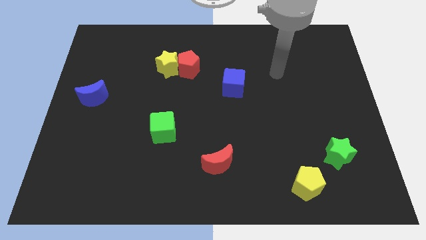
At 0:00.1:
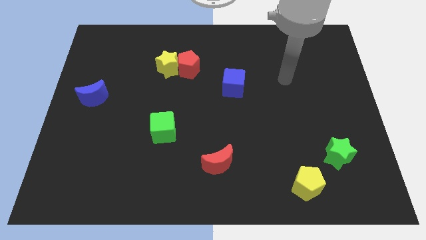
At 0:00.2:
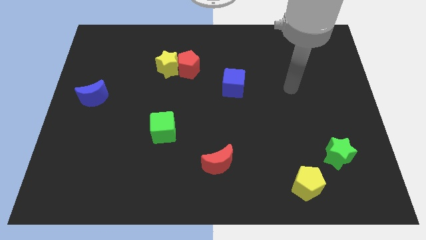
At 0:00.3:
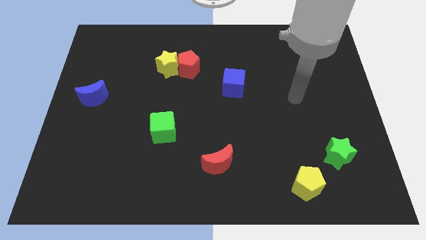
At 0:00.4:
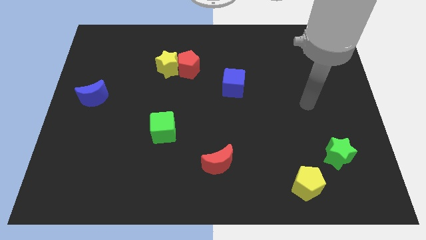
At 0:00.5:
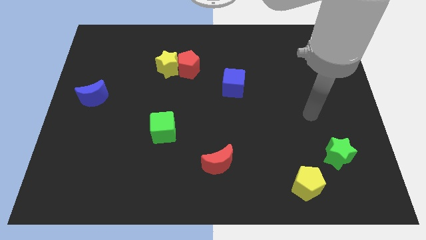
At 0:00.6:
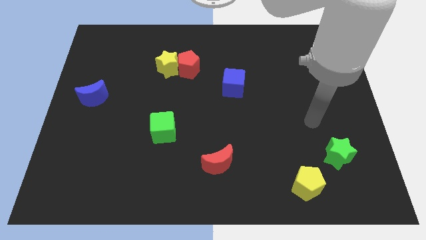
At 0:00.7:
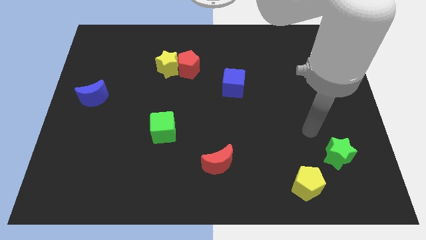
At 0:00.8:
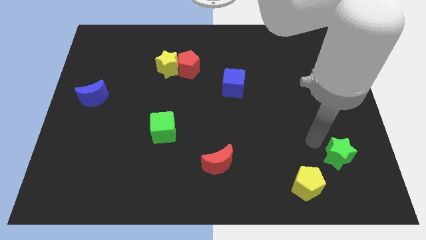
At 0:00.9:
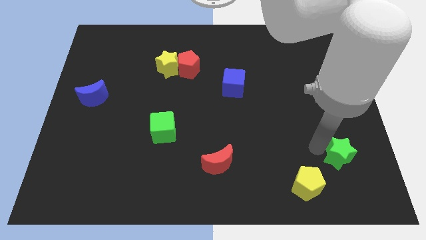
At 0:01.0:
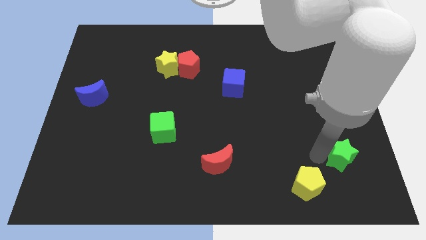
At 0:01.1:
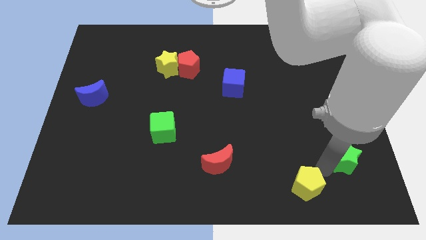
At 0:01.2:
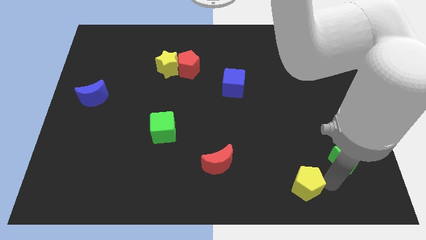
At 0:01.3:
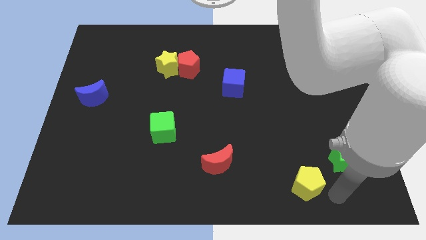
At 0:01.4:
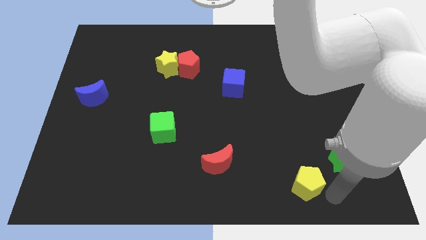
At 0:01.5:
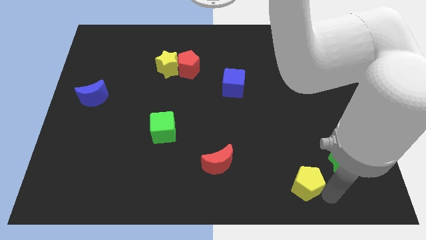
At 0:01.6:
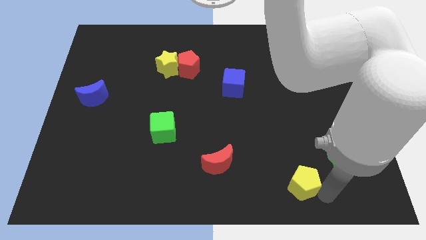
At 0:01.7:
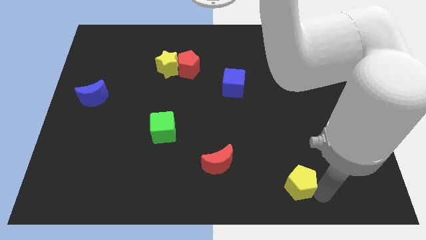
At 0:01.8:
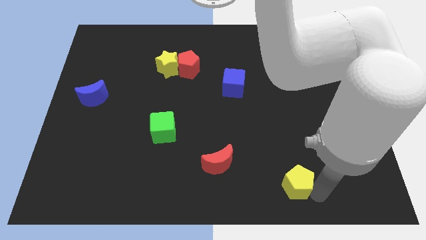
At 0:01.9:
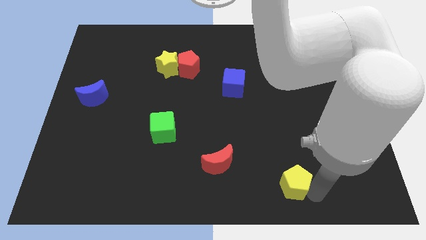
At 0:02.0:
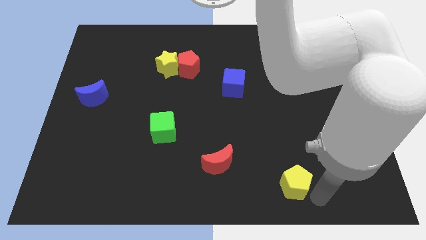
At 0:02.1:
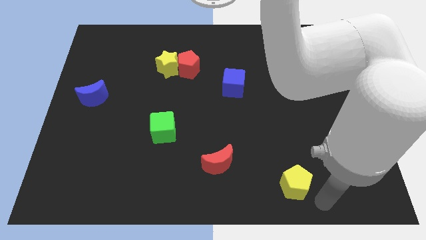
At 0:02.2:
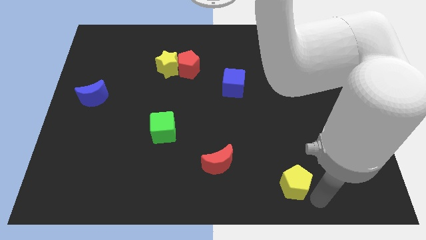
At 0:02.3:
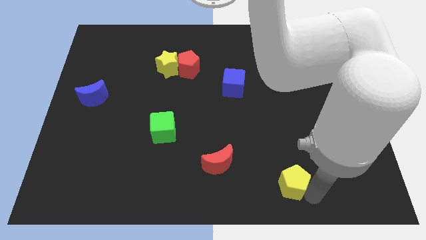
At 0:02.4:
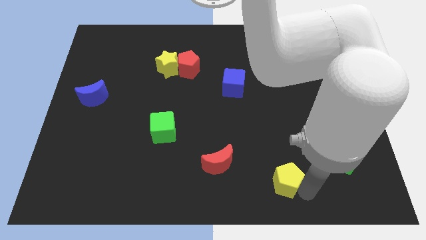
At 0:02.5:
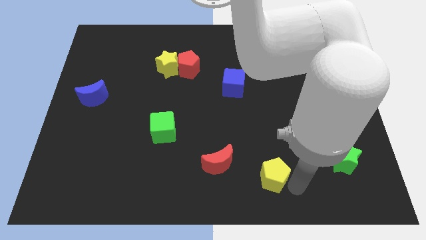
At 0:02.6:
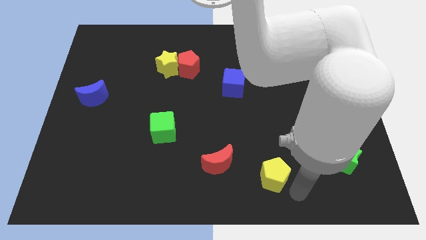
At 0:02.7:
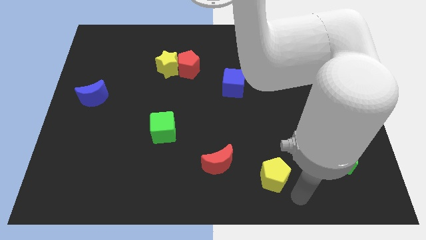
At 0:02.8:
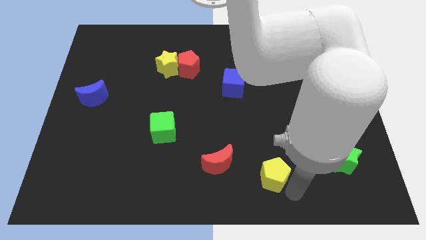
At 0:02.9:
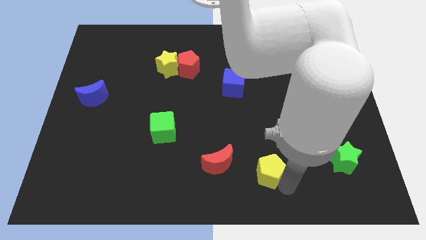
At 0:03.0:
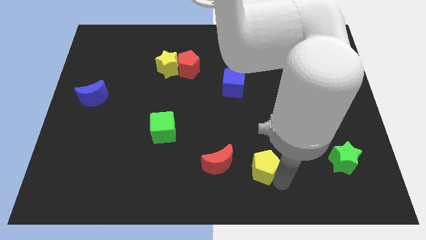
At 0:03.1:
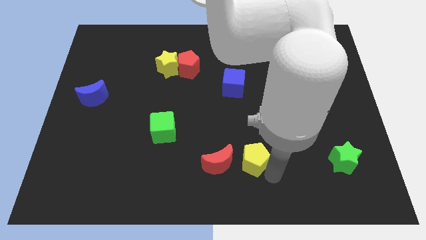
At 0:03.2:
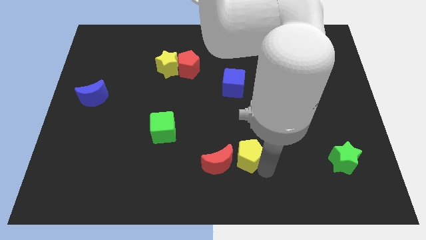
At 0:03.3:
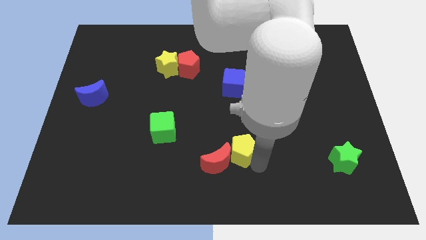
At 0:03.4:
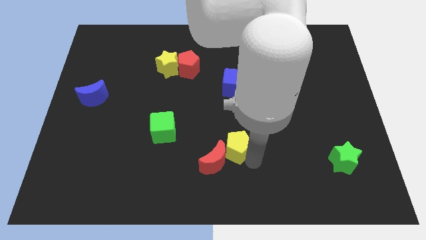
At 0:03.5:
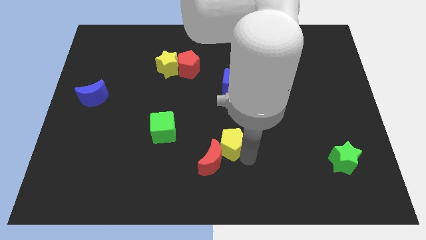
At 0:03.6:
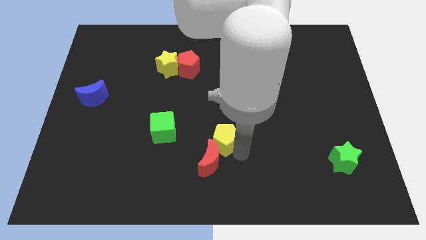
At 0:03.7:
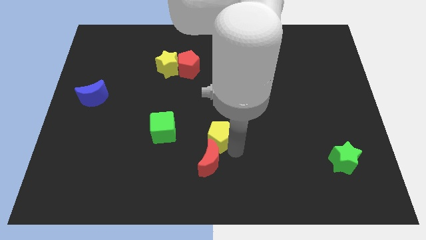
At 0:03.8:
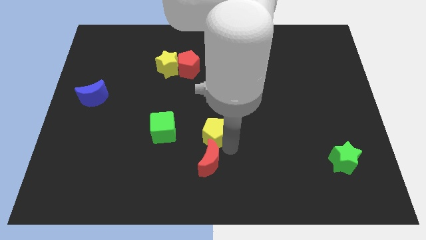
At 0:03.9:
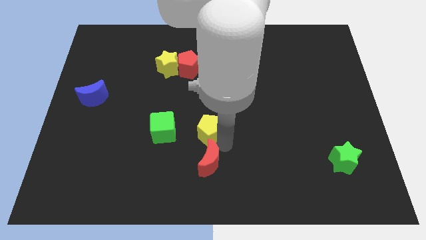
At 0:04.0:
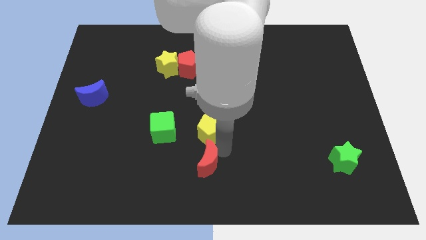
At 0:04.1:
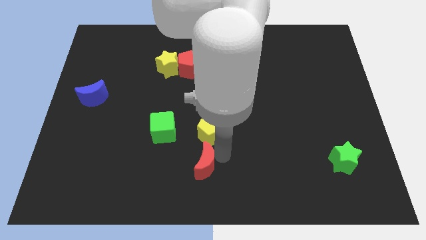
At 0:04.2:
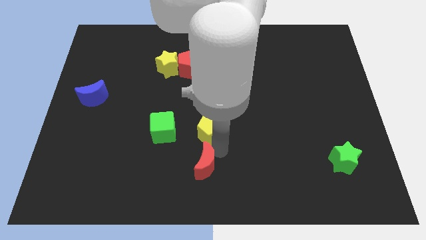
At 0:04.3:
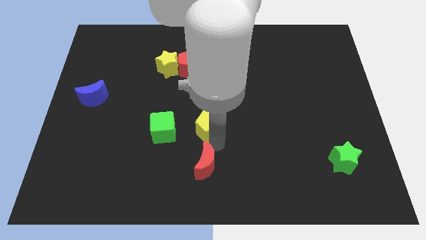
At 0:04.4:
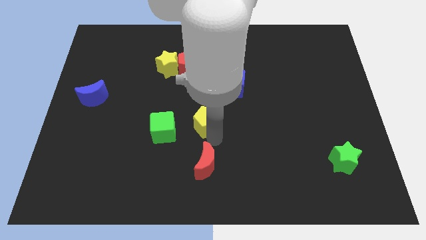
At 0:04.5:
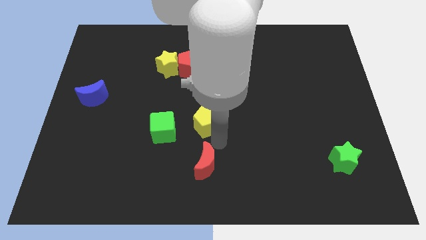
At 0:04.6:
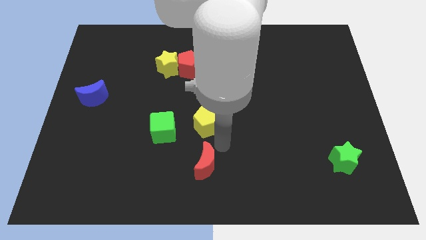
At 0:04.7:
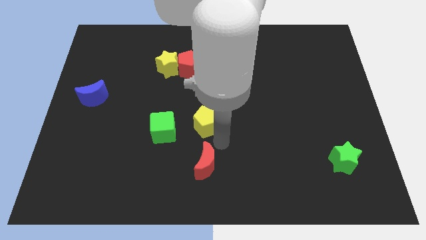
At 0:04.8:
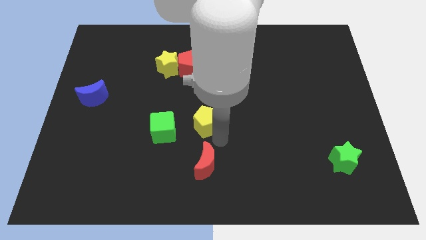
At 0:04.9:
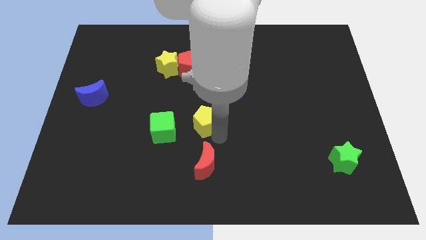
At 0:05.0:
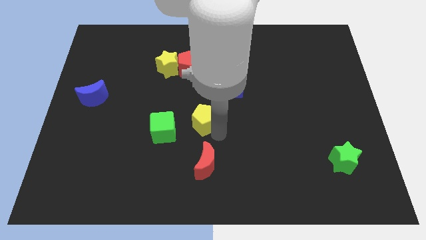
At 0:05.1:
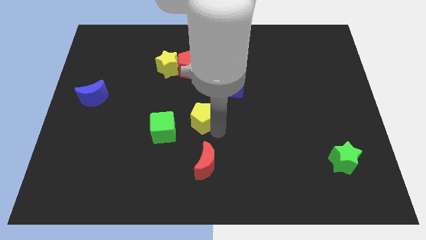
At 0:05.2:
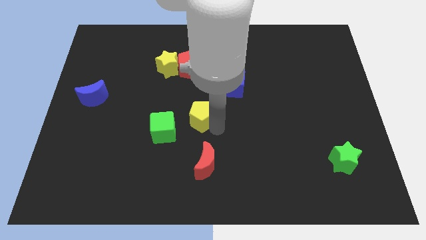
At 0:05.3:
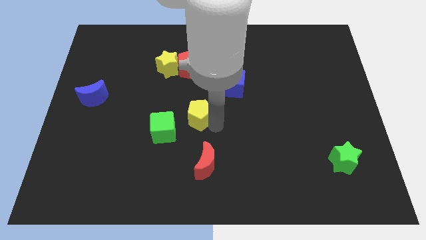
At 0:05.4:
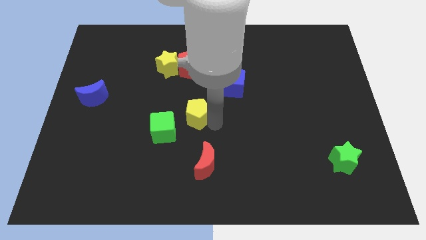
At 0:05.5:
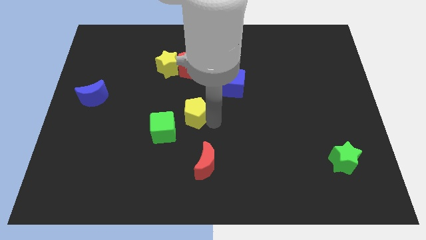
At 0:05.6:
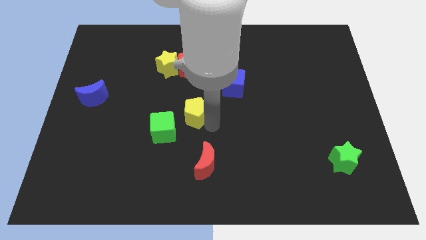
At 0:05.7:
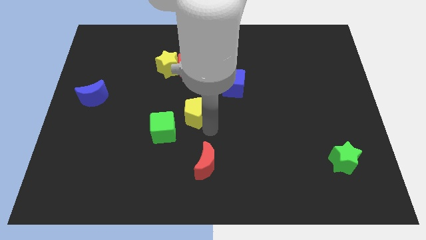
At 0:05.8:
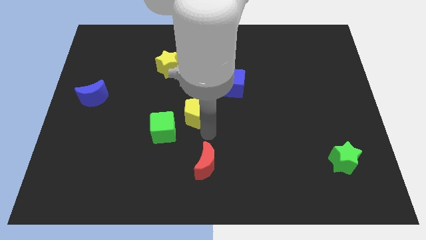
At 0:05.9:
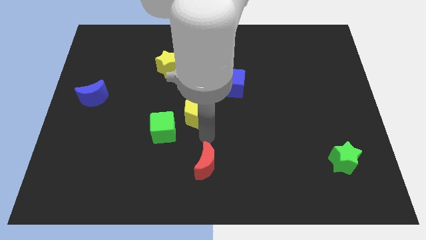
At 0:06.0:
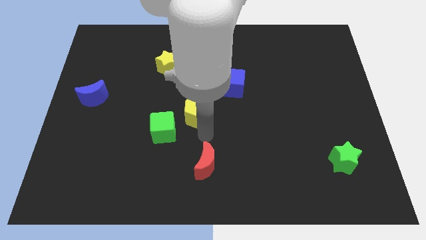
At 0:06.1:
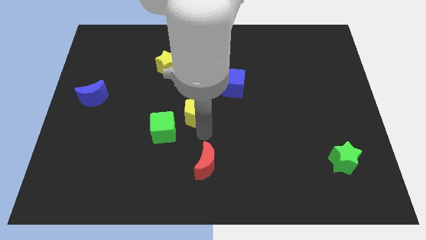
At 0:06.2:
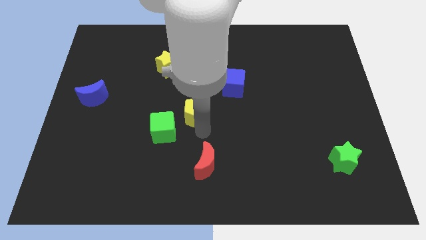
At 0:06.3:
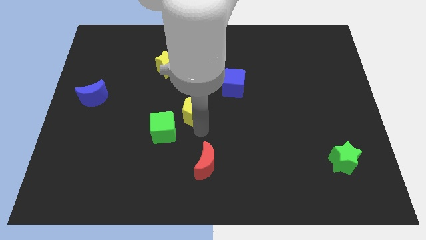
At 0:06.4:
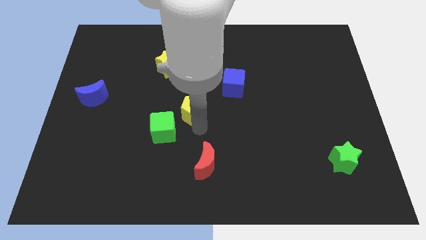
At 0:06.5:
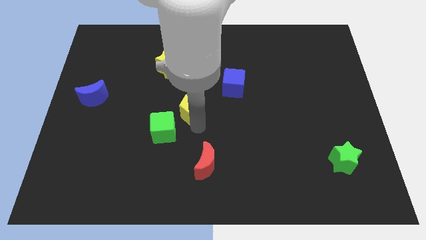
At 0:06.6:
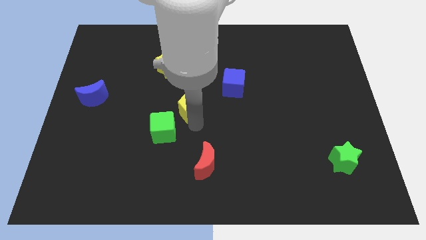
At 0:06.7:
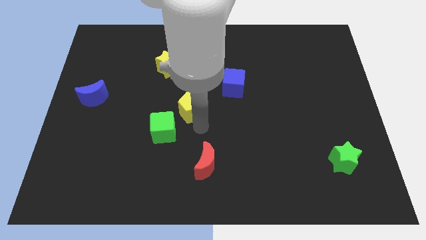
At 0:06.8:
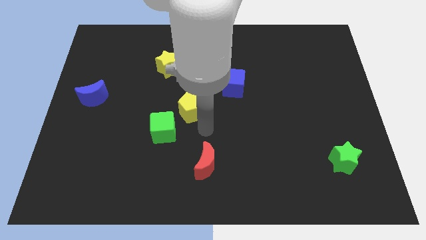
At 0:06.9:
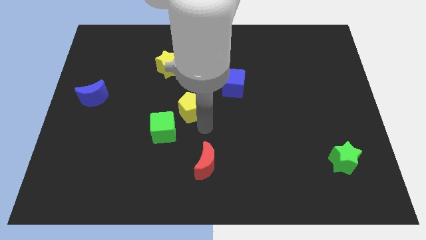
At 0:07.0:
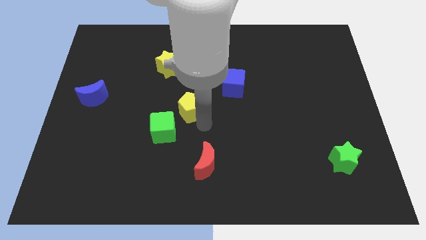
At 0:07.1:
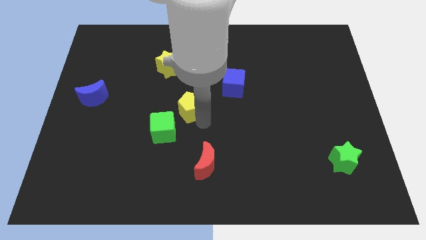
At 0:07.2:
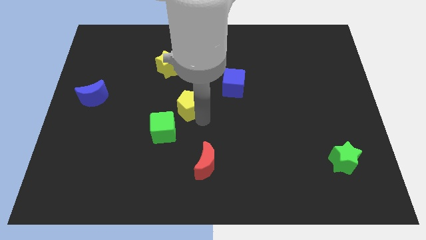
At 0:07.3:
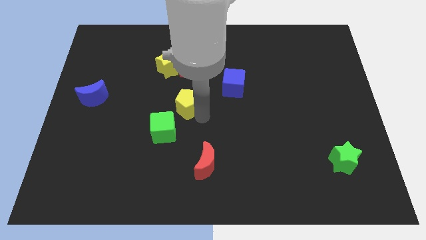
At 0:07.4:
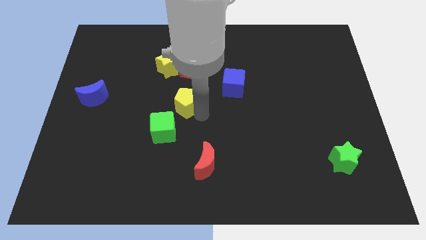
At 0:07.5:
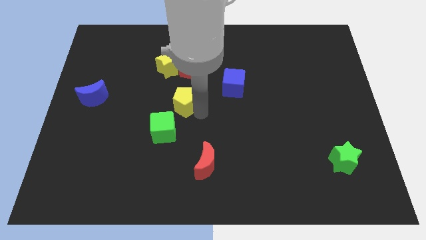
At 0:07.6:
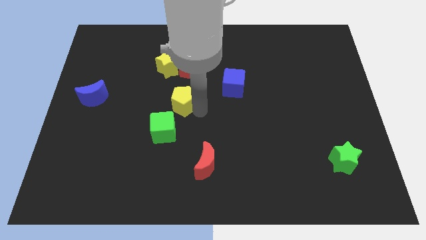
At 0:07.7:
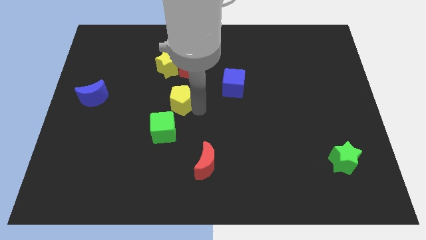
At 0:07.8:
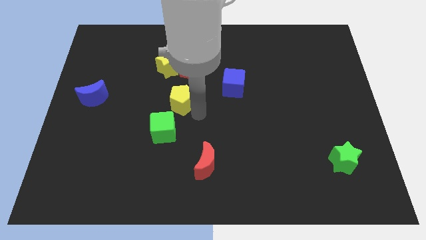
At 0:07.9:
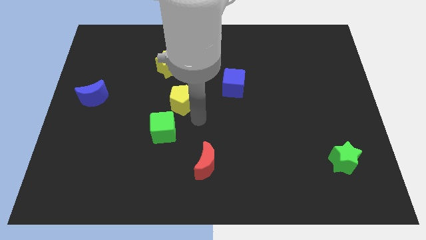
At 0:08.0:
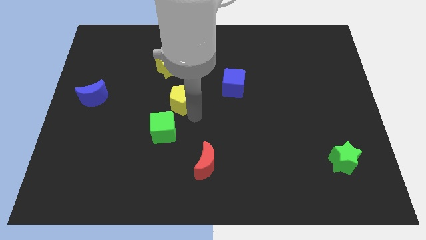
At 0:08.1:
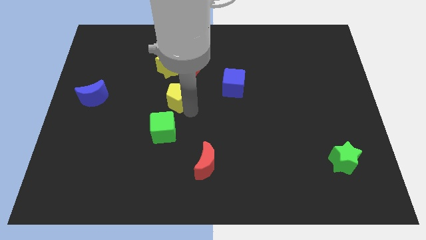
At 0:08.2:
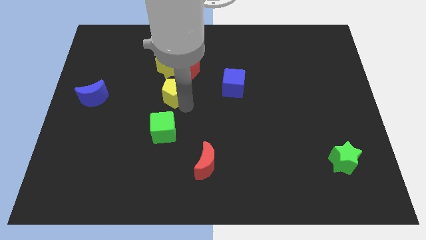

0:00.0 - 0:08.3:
push the yellow pentagon to the bottom left side of the red pentagon
